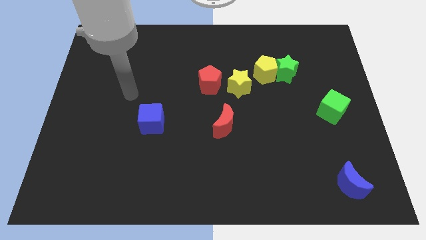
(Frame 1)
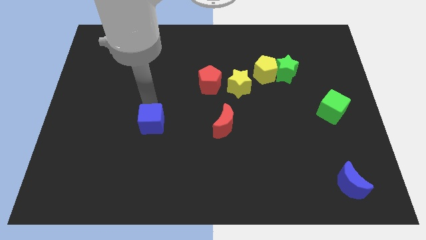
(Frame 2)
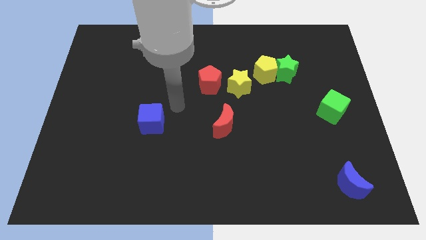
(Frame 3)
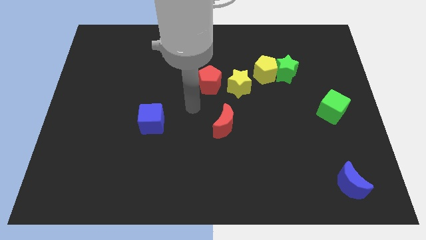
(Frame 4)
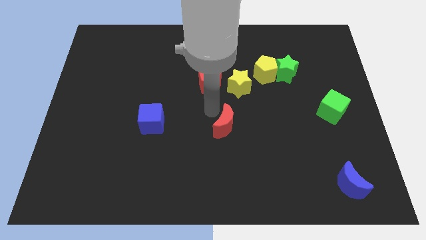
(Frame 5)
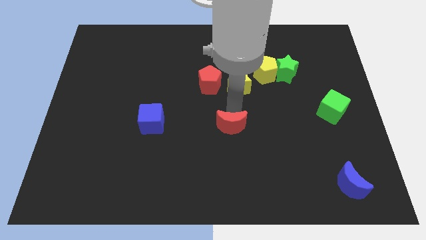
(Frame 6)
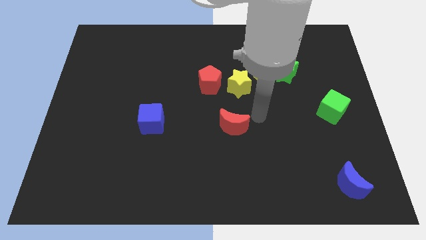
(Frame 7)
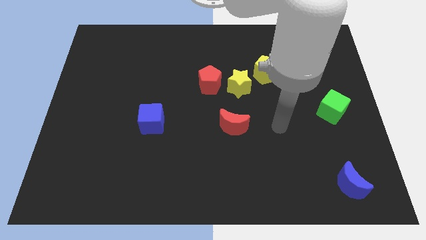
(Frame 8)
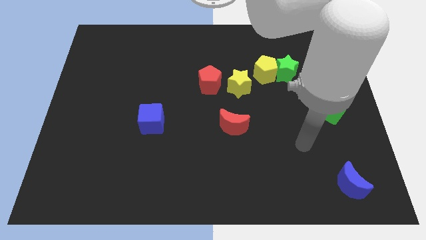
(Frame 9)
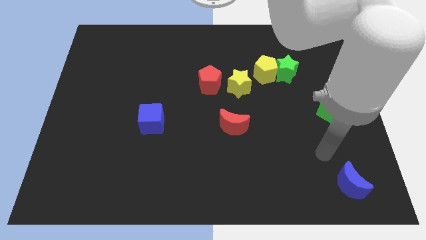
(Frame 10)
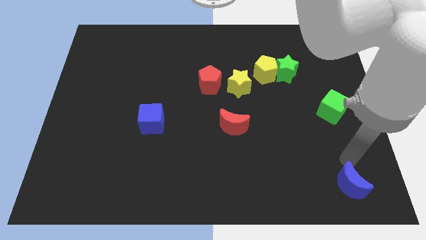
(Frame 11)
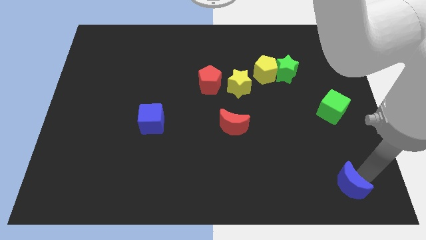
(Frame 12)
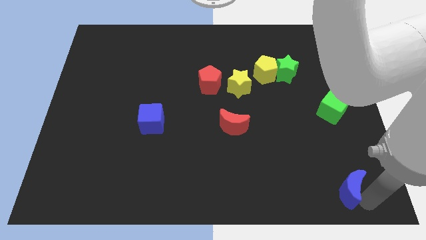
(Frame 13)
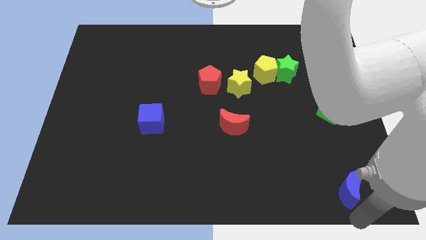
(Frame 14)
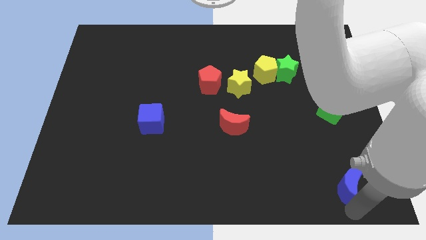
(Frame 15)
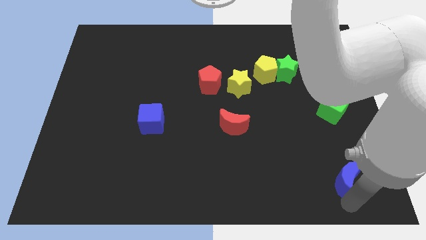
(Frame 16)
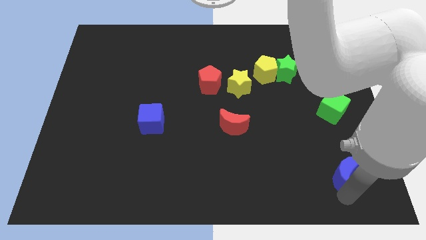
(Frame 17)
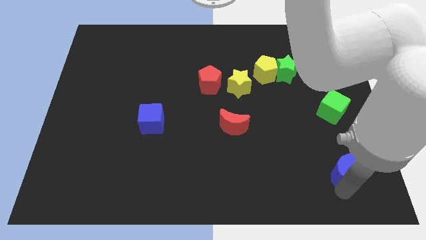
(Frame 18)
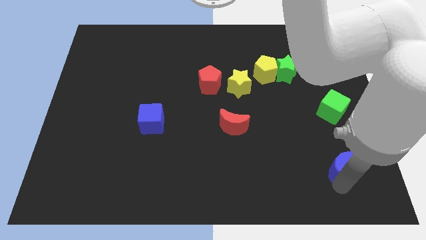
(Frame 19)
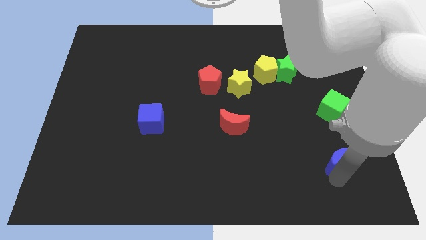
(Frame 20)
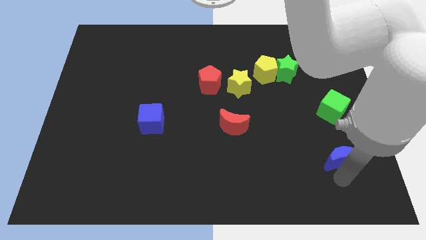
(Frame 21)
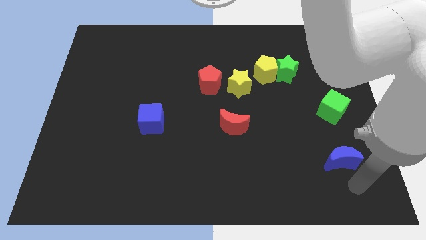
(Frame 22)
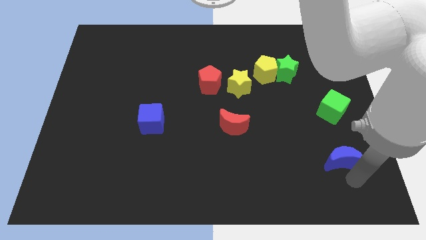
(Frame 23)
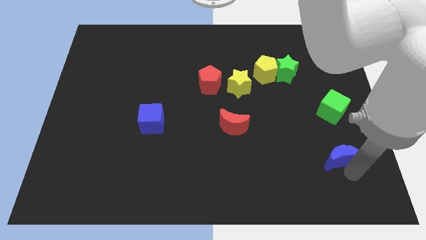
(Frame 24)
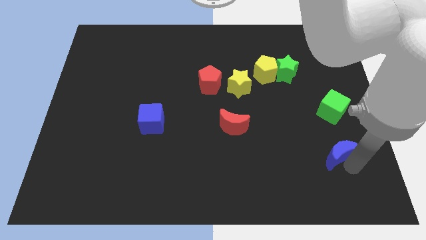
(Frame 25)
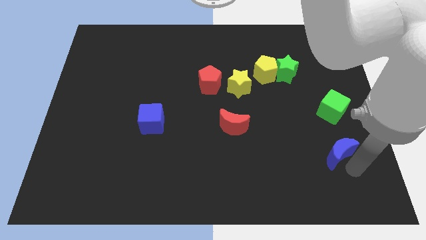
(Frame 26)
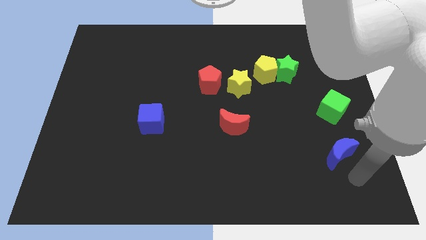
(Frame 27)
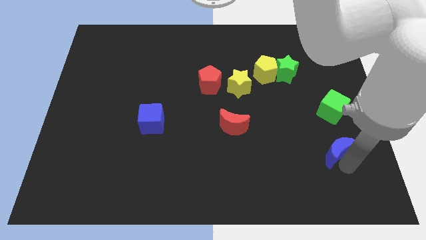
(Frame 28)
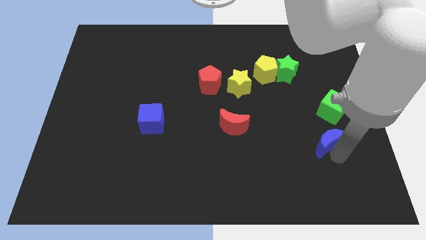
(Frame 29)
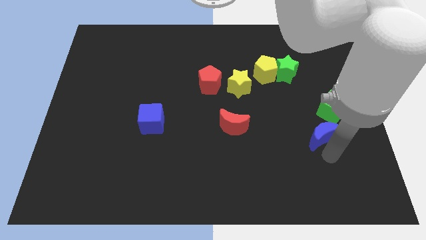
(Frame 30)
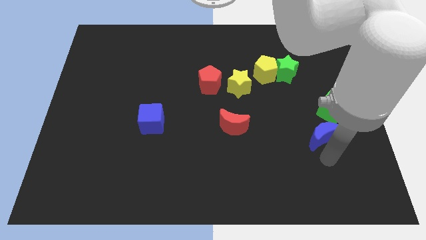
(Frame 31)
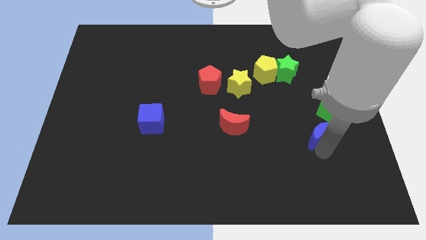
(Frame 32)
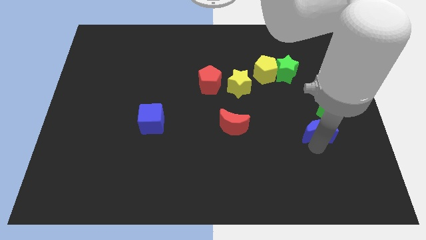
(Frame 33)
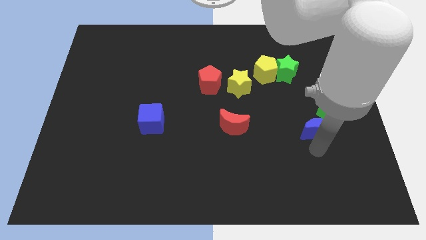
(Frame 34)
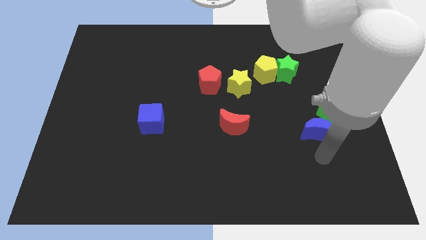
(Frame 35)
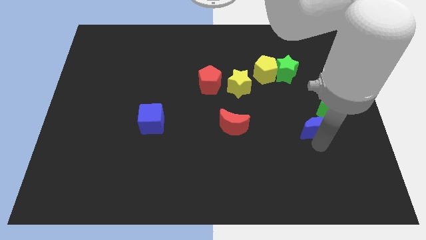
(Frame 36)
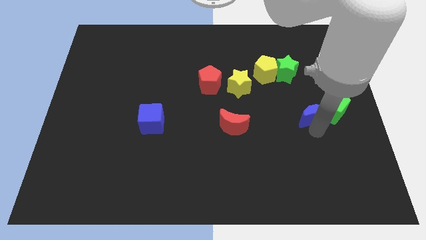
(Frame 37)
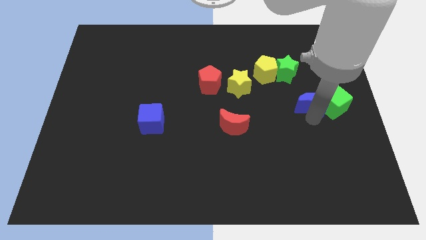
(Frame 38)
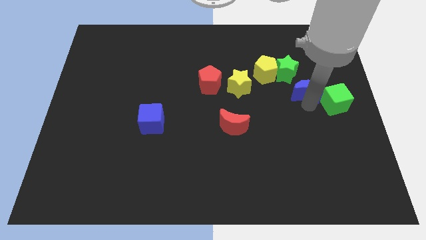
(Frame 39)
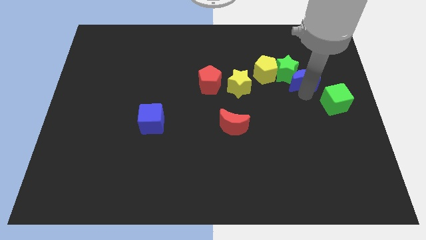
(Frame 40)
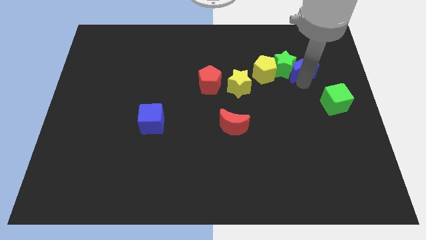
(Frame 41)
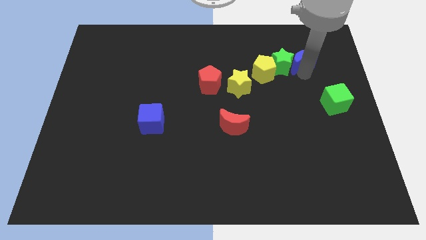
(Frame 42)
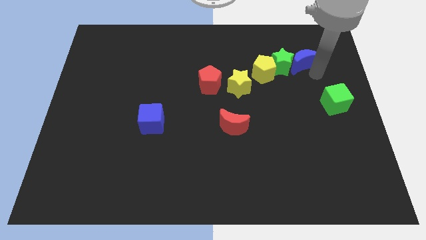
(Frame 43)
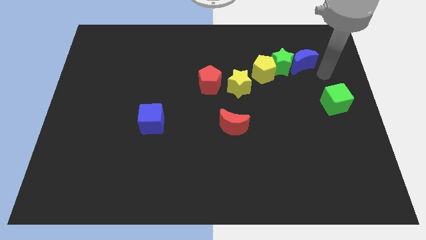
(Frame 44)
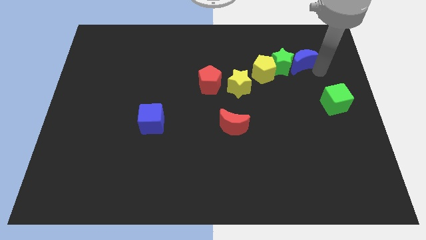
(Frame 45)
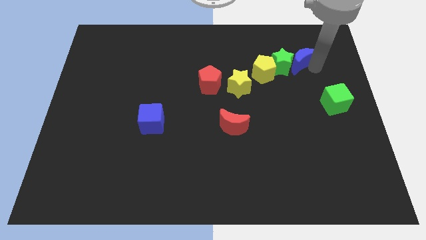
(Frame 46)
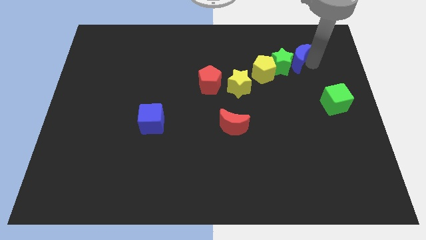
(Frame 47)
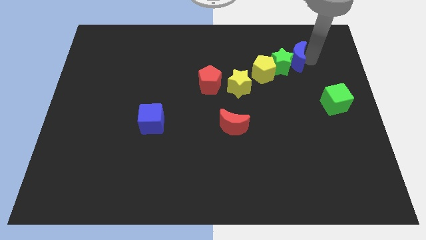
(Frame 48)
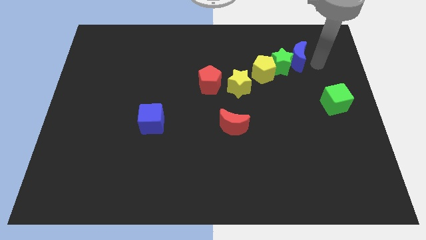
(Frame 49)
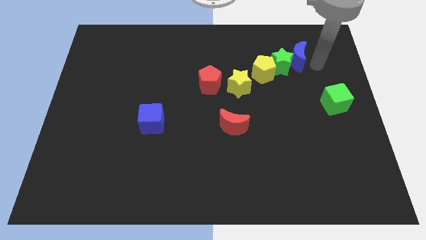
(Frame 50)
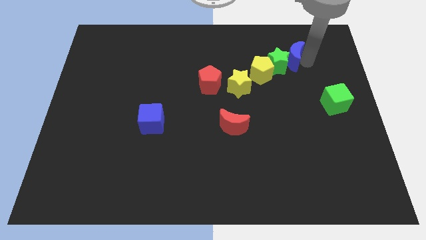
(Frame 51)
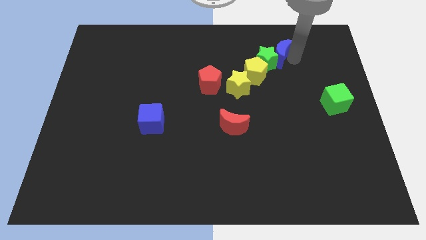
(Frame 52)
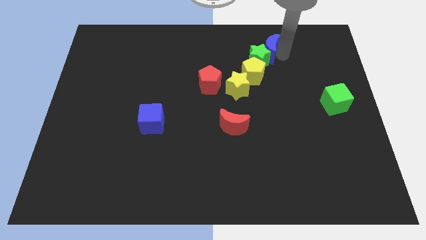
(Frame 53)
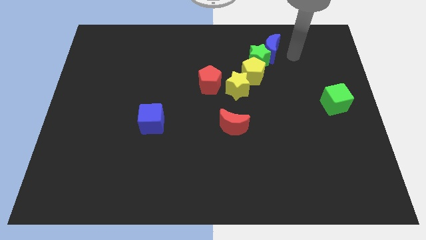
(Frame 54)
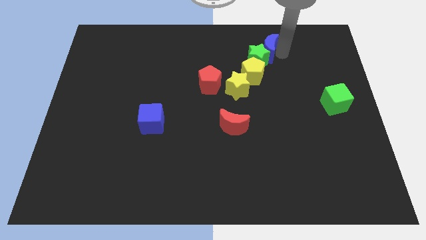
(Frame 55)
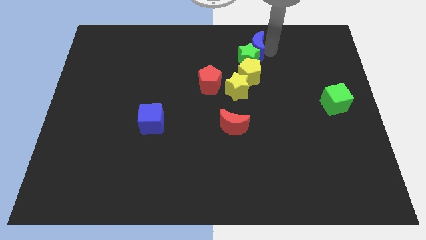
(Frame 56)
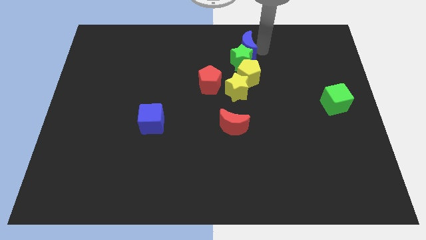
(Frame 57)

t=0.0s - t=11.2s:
push the blue moon to the top side

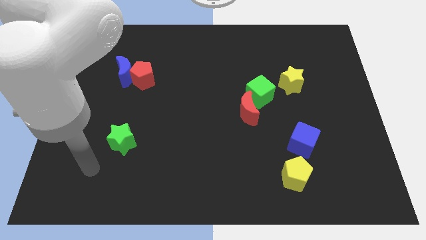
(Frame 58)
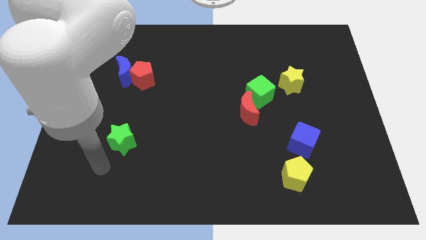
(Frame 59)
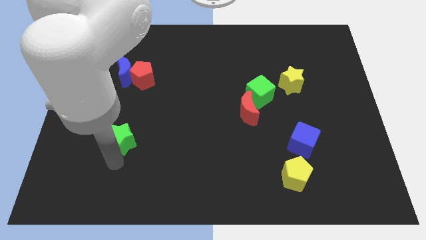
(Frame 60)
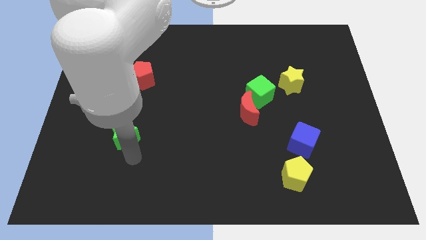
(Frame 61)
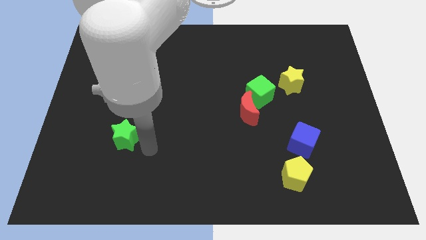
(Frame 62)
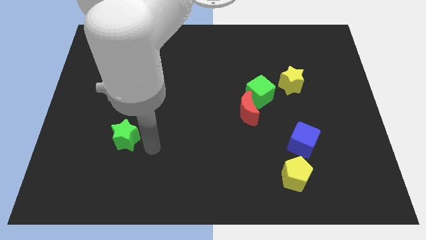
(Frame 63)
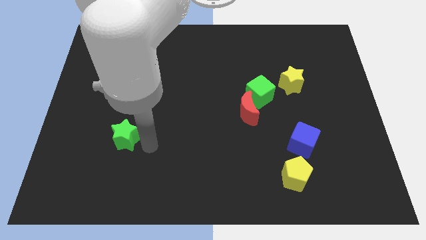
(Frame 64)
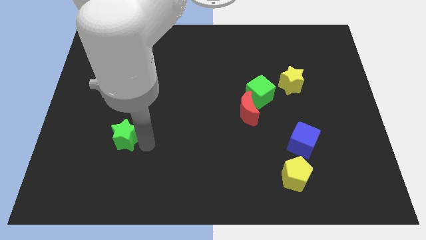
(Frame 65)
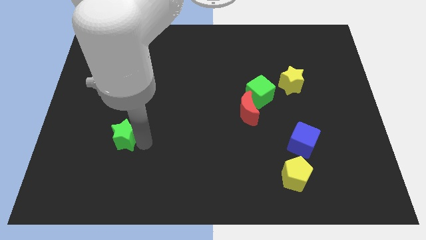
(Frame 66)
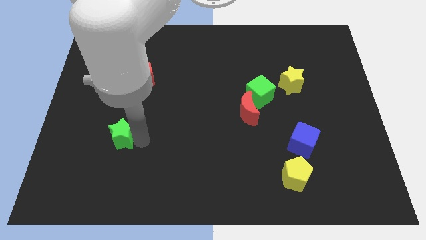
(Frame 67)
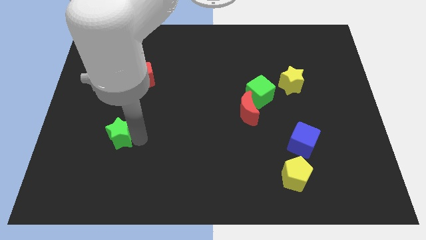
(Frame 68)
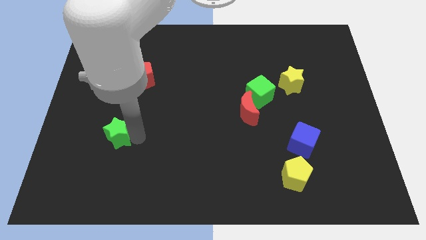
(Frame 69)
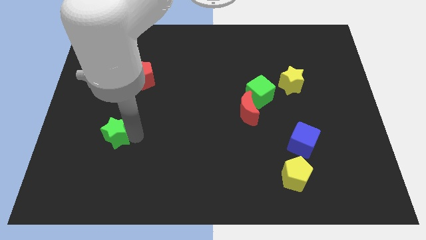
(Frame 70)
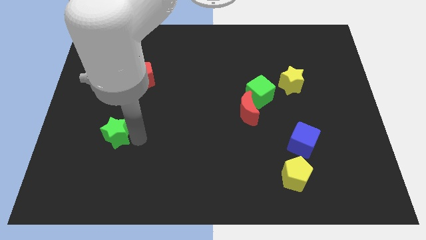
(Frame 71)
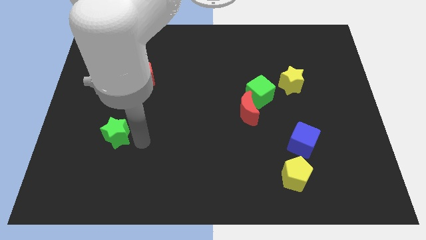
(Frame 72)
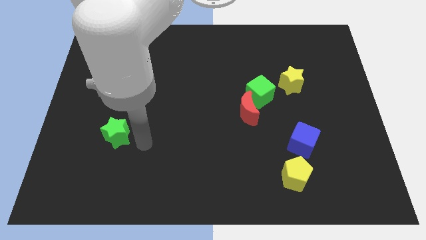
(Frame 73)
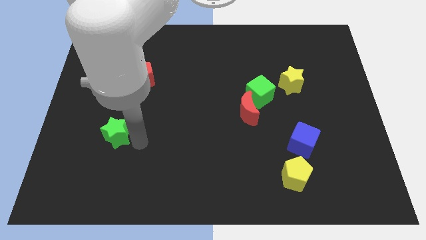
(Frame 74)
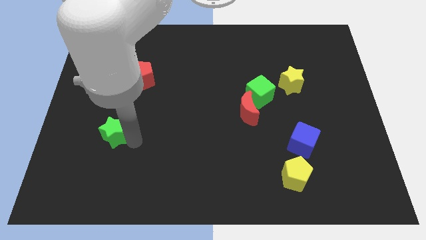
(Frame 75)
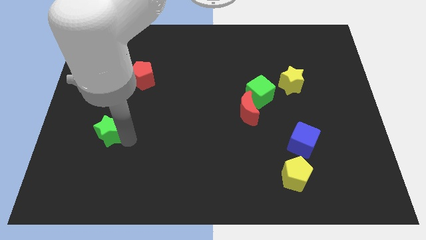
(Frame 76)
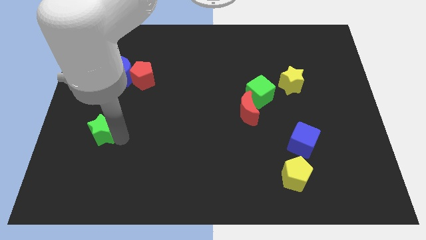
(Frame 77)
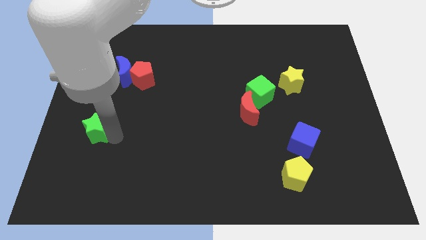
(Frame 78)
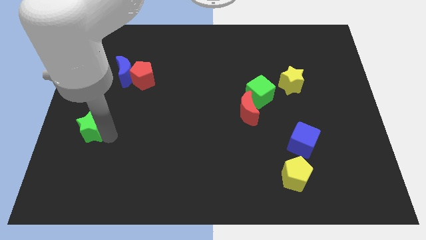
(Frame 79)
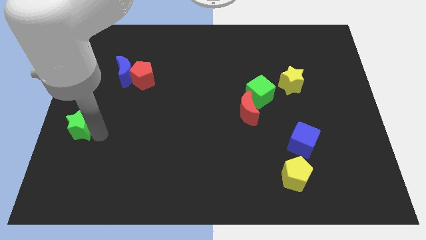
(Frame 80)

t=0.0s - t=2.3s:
push the green star to the left side
